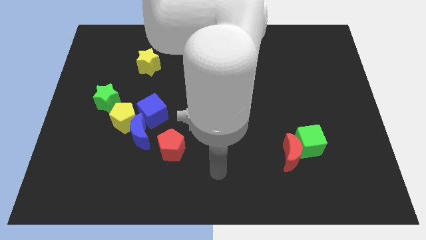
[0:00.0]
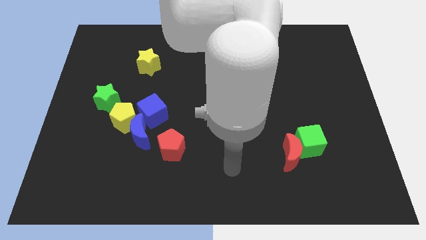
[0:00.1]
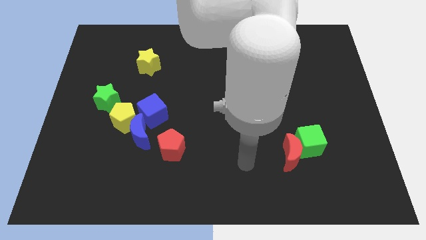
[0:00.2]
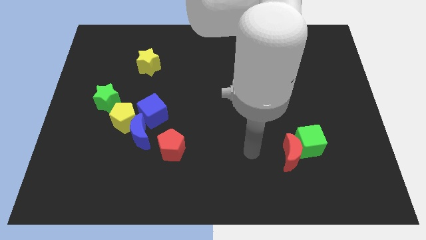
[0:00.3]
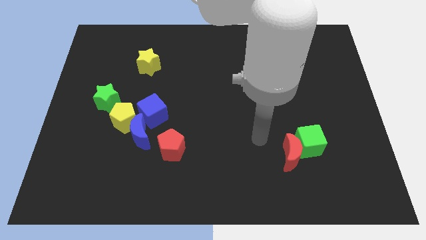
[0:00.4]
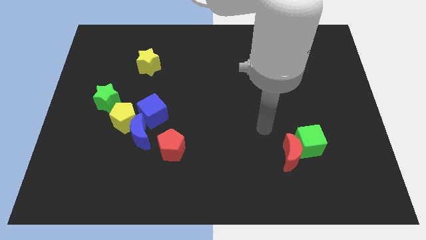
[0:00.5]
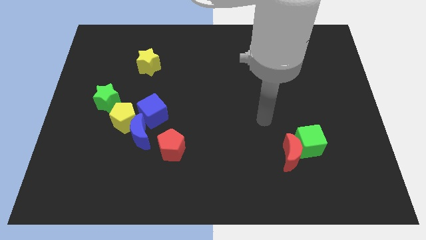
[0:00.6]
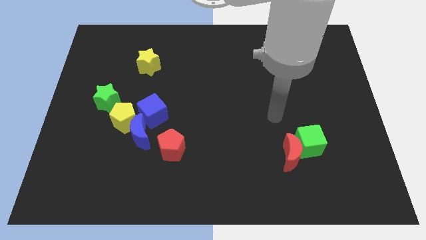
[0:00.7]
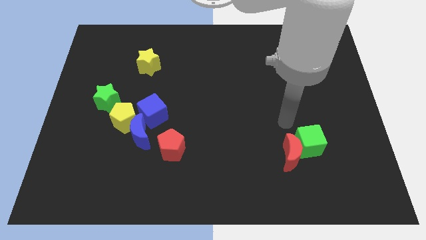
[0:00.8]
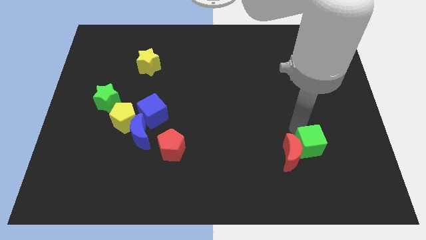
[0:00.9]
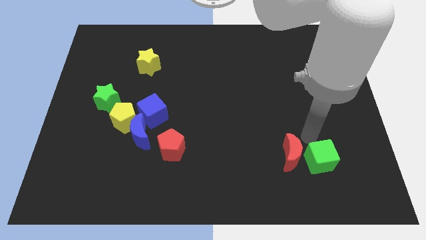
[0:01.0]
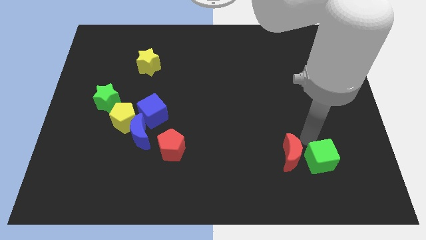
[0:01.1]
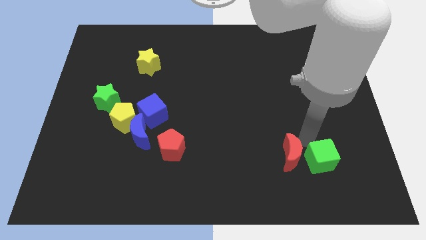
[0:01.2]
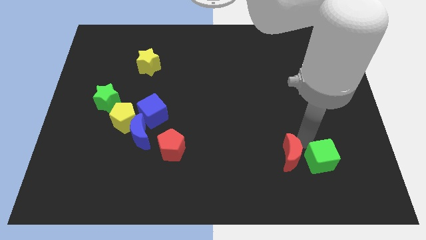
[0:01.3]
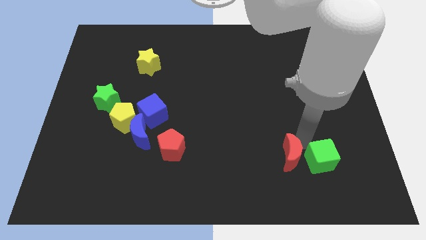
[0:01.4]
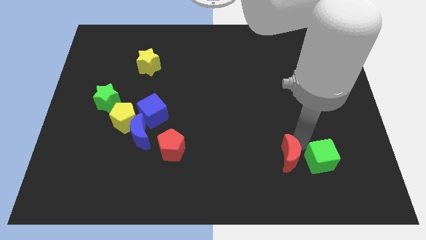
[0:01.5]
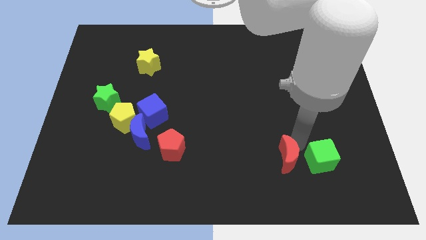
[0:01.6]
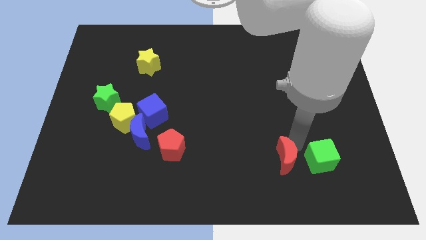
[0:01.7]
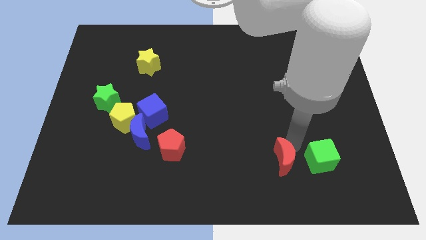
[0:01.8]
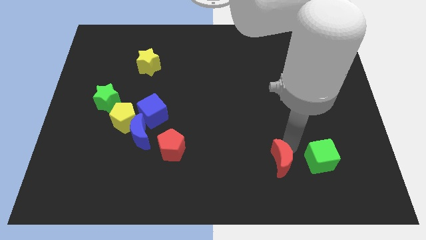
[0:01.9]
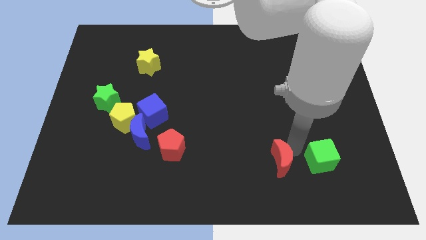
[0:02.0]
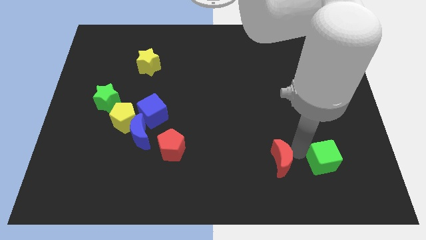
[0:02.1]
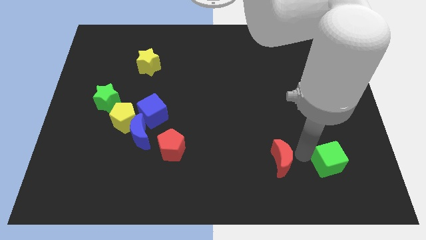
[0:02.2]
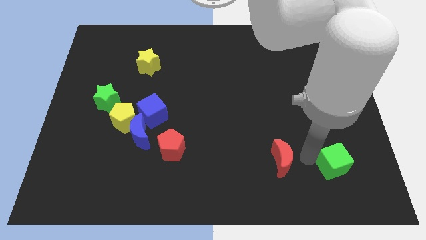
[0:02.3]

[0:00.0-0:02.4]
move the red moon away from the green cube

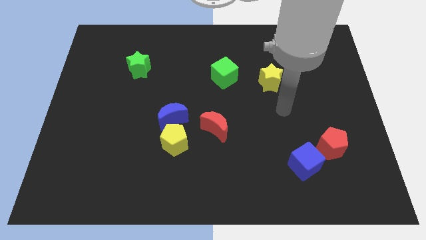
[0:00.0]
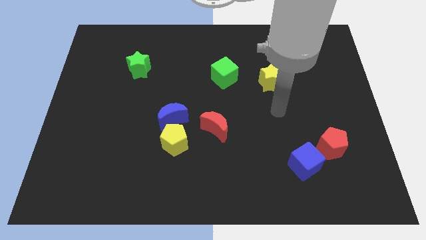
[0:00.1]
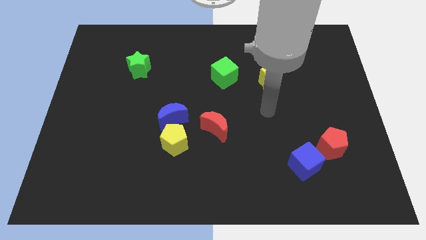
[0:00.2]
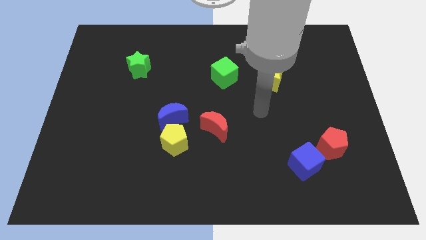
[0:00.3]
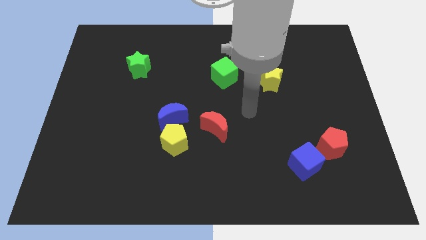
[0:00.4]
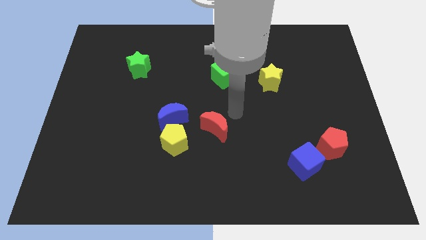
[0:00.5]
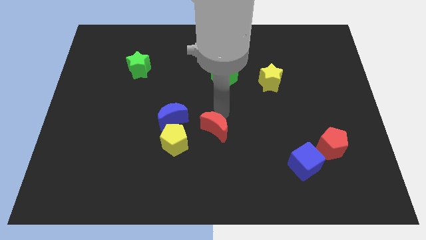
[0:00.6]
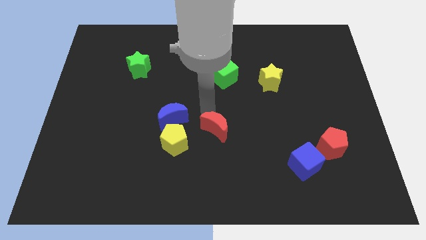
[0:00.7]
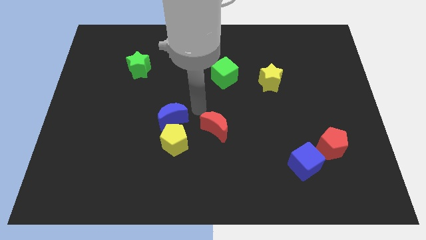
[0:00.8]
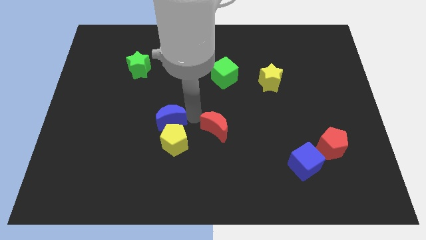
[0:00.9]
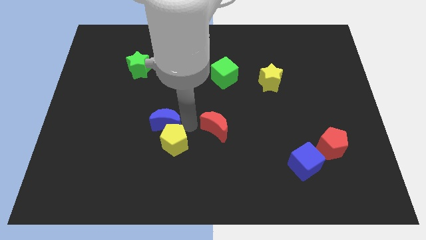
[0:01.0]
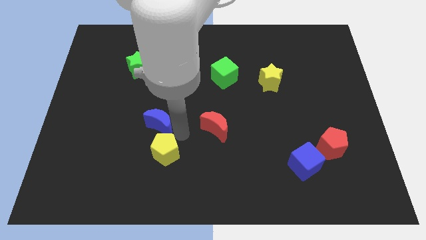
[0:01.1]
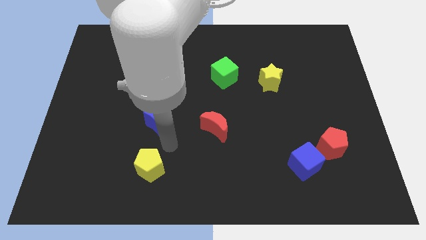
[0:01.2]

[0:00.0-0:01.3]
separate the blue moon from the yellow pentagon

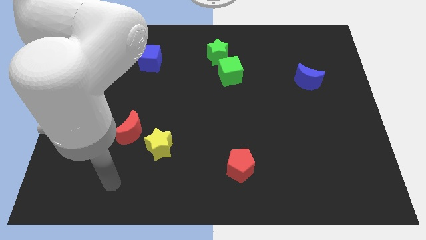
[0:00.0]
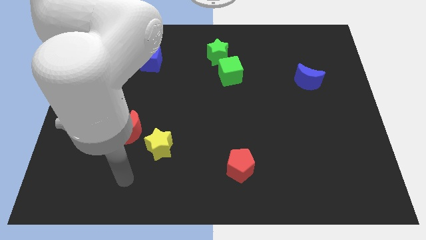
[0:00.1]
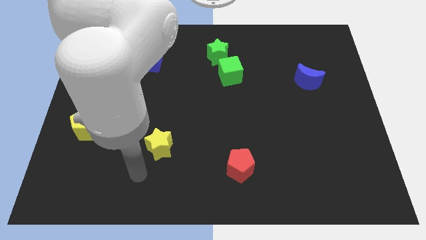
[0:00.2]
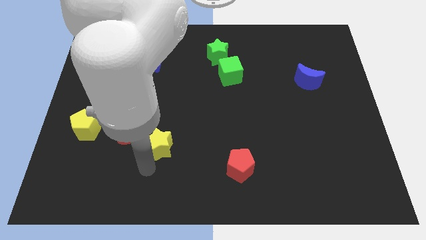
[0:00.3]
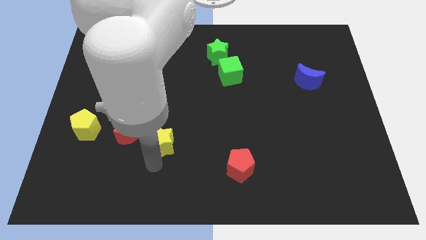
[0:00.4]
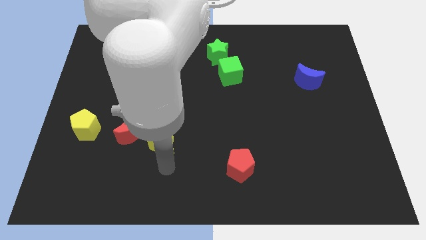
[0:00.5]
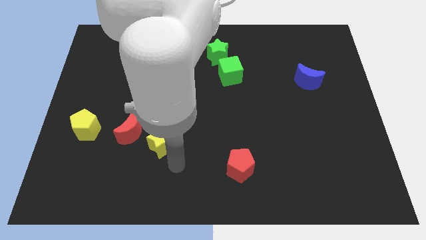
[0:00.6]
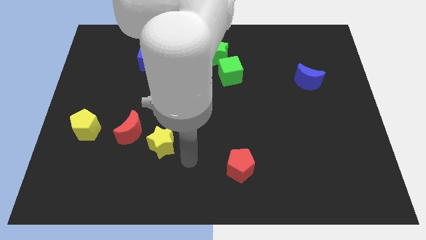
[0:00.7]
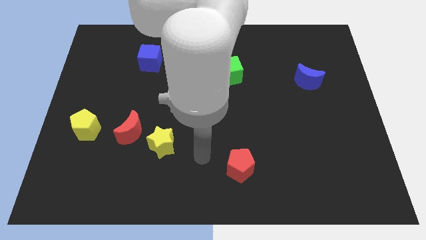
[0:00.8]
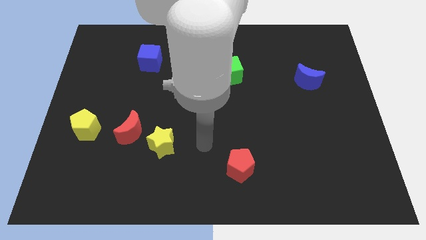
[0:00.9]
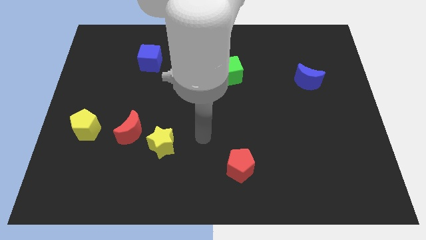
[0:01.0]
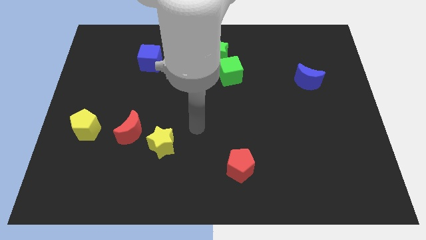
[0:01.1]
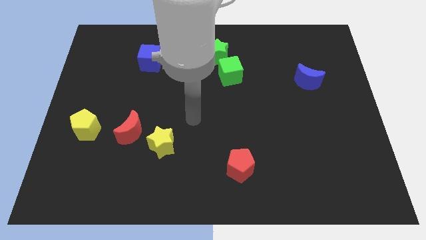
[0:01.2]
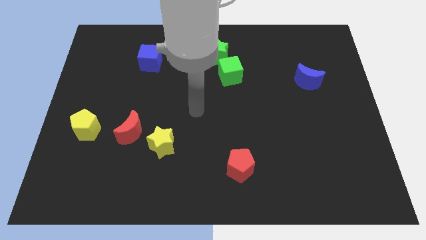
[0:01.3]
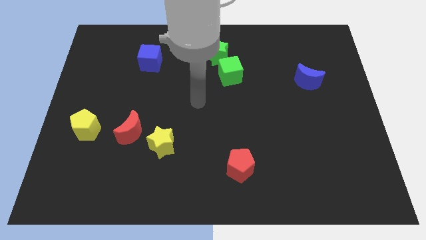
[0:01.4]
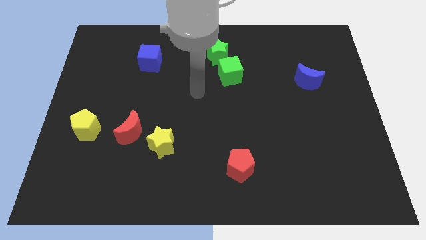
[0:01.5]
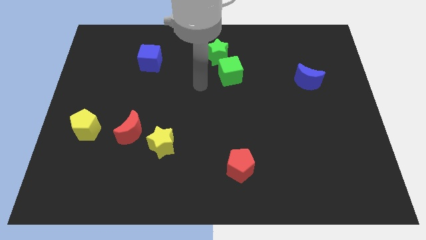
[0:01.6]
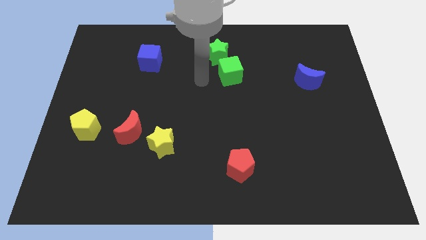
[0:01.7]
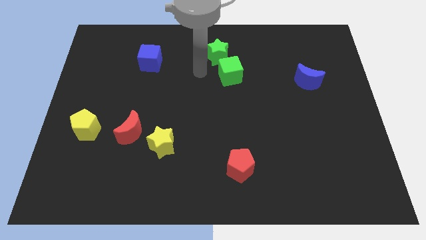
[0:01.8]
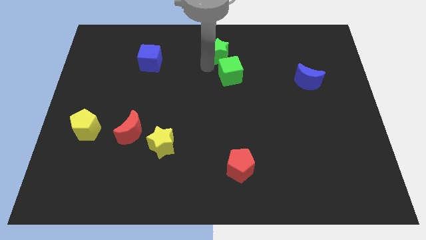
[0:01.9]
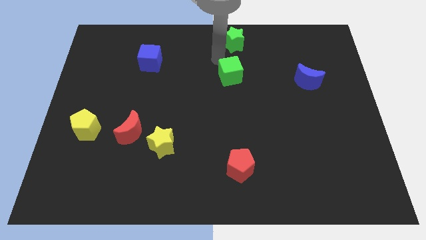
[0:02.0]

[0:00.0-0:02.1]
separate the green cube from the green star

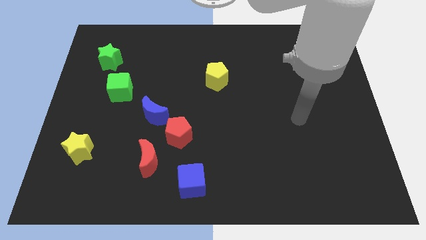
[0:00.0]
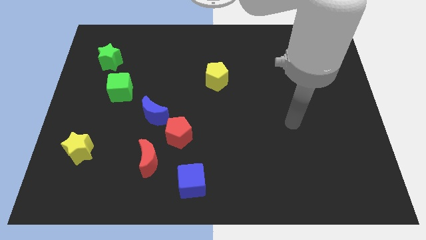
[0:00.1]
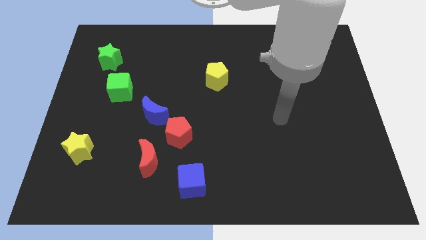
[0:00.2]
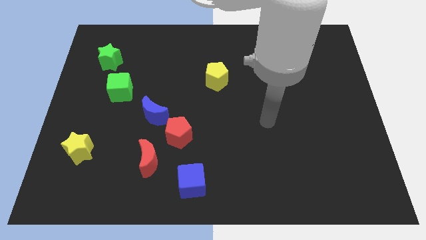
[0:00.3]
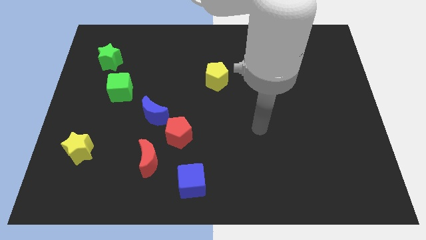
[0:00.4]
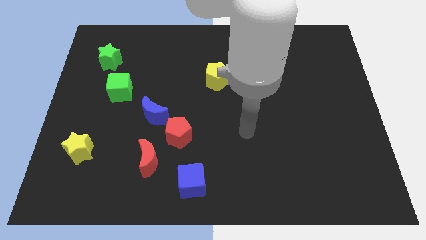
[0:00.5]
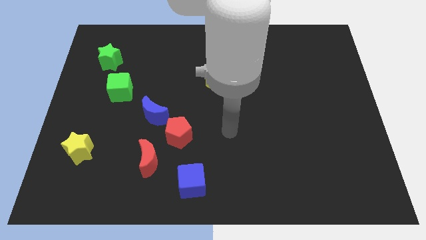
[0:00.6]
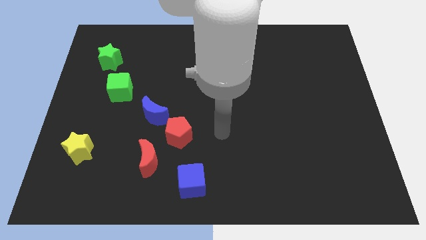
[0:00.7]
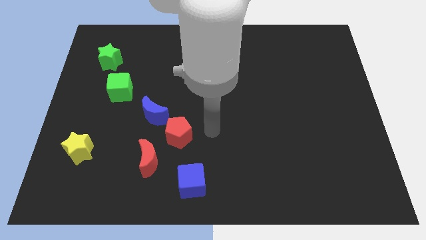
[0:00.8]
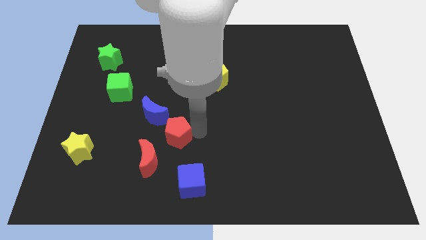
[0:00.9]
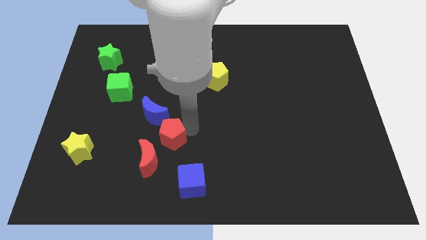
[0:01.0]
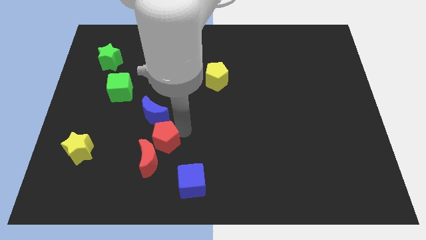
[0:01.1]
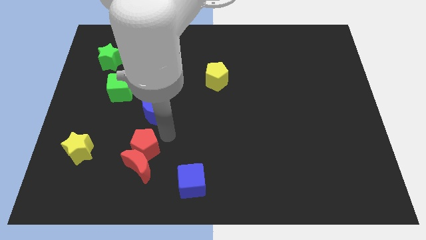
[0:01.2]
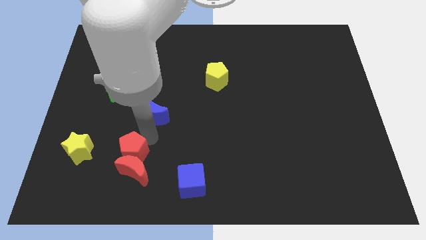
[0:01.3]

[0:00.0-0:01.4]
separate the blue moon from the red pentagon

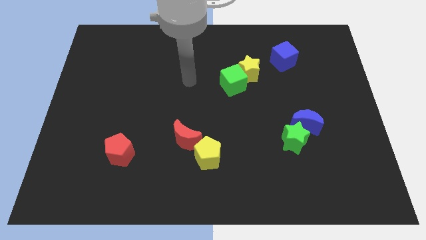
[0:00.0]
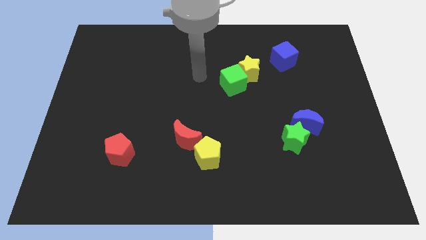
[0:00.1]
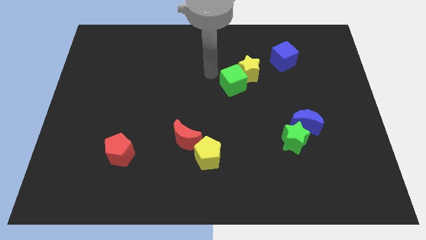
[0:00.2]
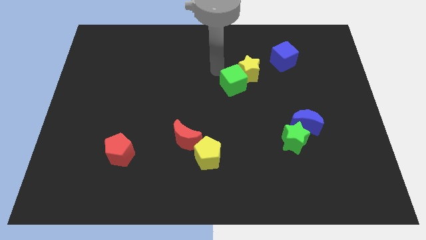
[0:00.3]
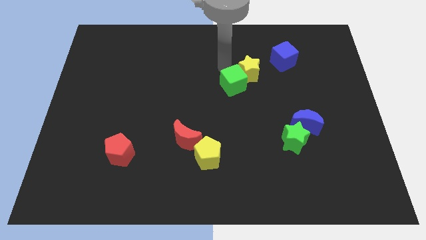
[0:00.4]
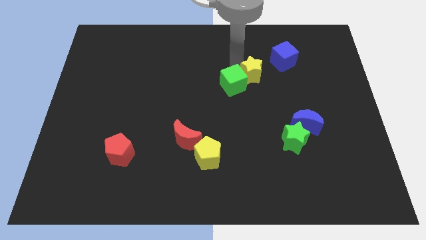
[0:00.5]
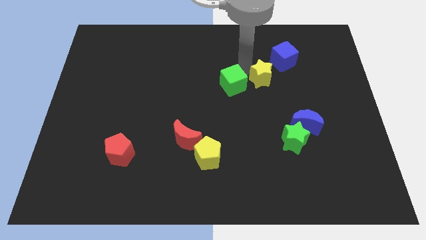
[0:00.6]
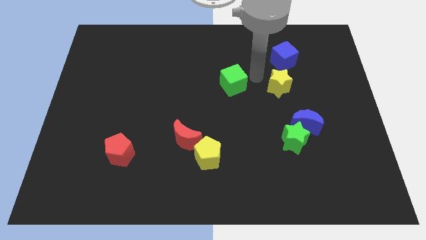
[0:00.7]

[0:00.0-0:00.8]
separate the green cube from the yellow star

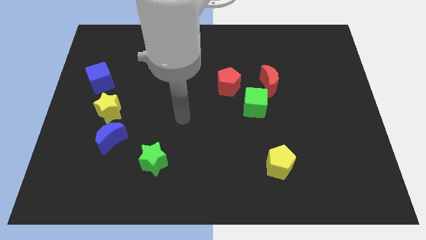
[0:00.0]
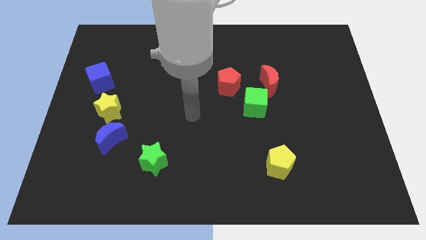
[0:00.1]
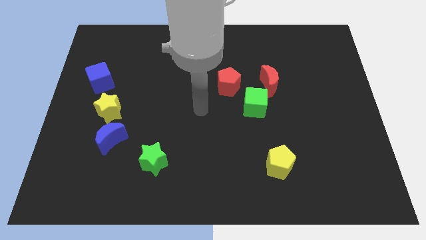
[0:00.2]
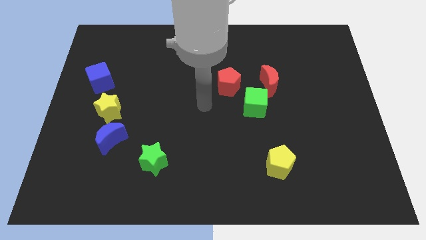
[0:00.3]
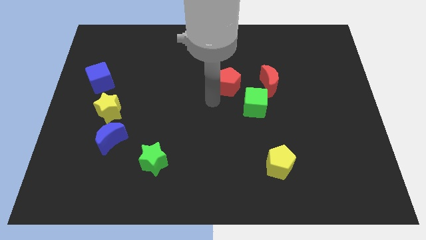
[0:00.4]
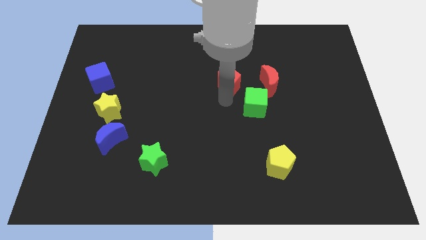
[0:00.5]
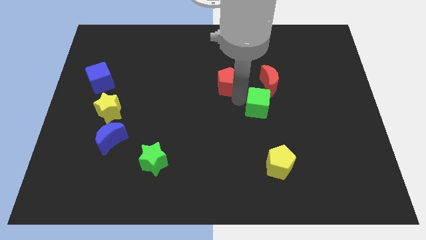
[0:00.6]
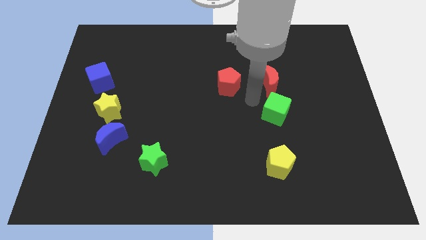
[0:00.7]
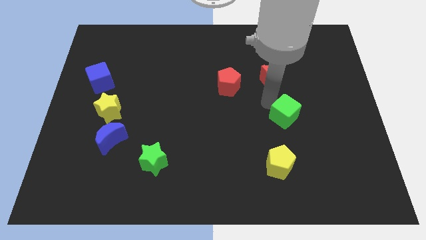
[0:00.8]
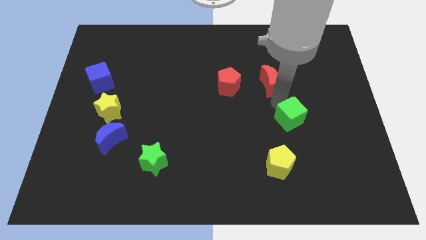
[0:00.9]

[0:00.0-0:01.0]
separate the red moon from the green cube

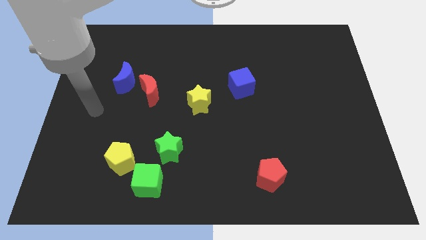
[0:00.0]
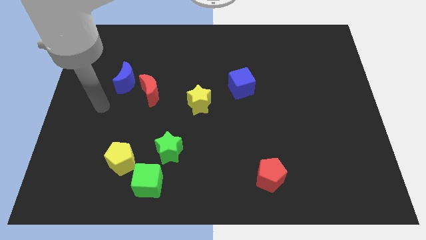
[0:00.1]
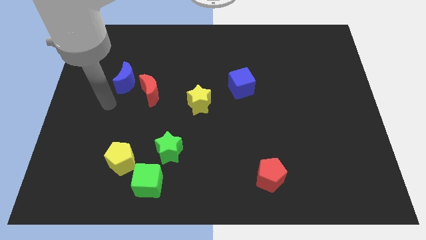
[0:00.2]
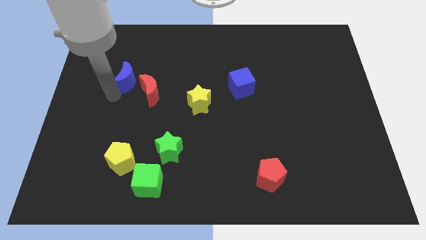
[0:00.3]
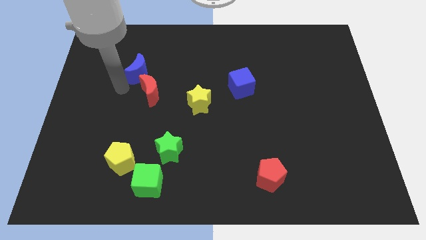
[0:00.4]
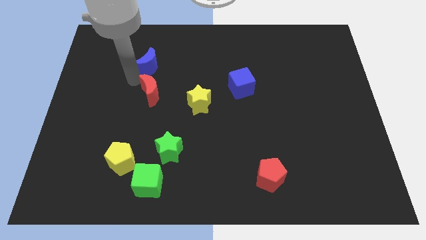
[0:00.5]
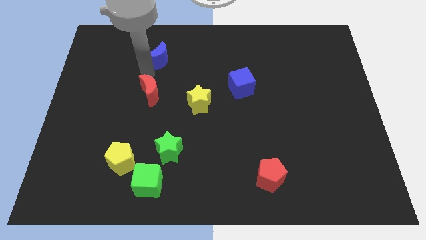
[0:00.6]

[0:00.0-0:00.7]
separate the red moon from the blue moon
